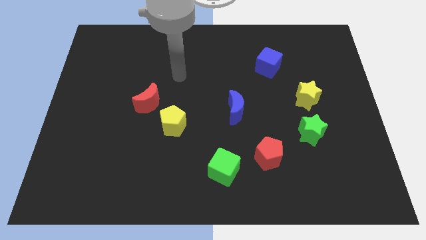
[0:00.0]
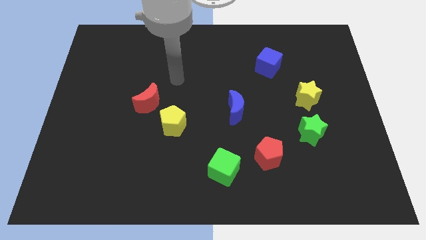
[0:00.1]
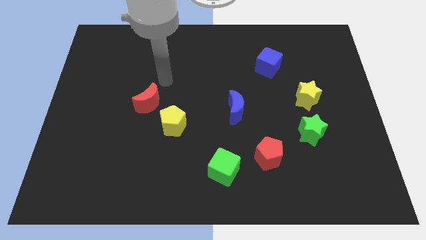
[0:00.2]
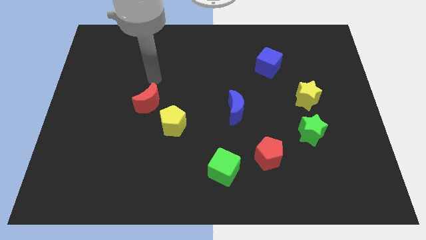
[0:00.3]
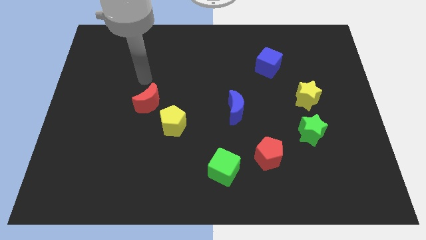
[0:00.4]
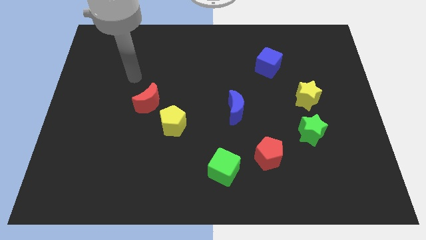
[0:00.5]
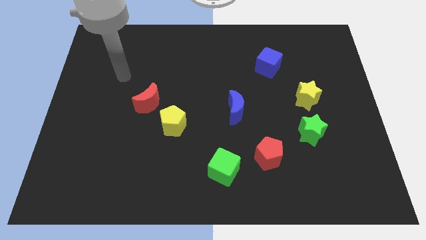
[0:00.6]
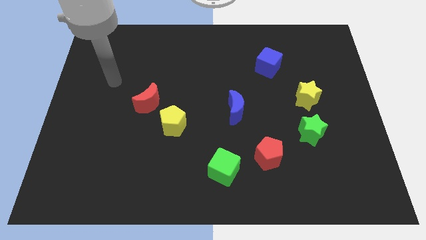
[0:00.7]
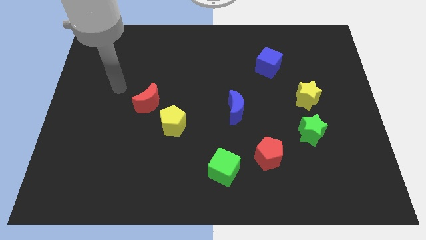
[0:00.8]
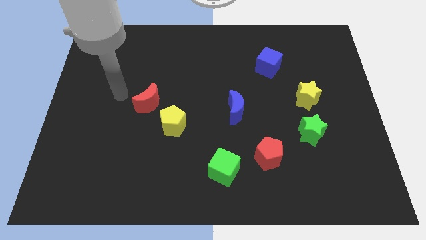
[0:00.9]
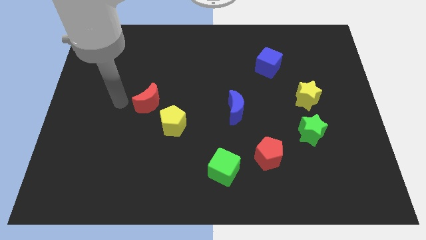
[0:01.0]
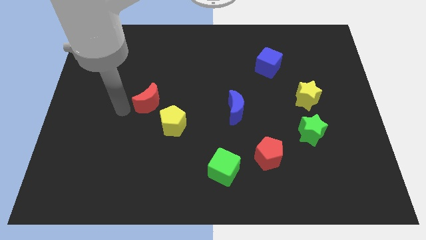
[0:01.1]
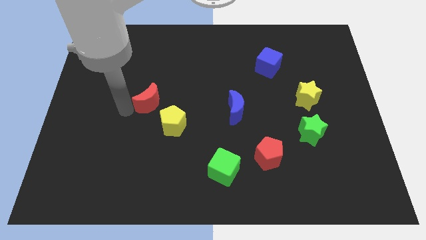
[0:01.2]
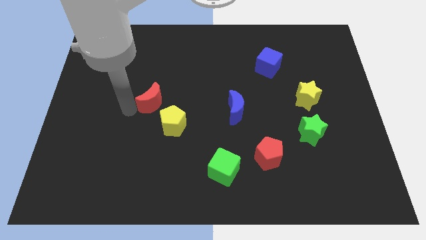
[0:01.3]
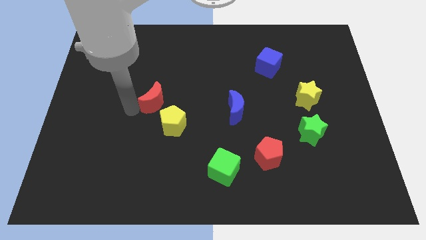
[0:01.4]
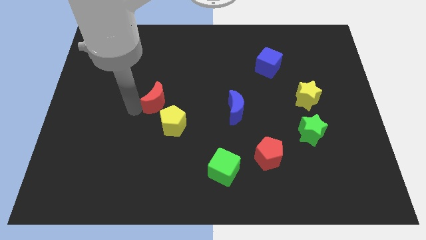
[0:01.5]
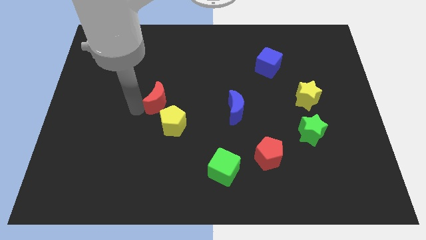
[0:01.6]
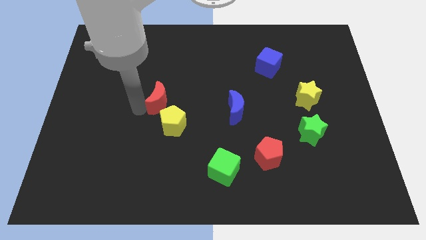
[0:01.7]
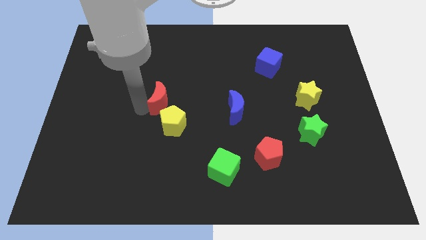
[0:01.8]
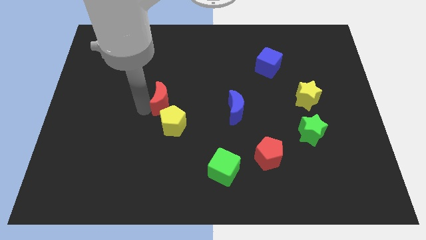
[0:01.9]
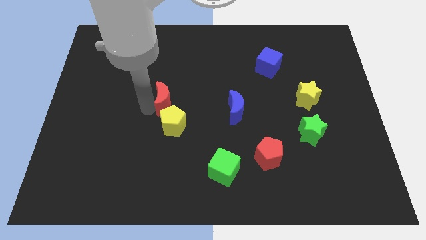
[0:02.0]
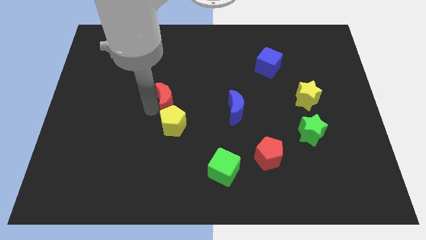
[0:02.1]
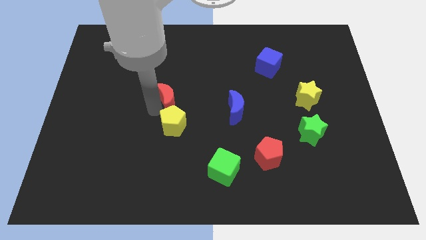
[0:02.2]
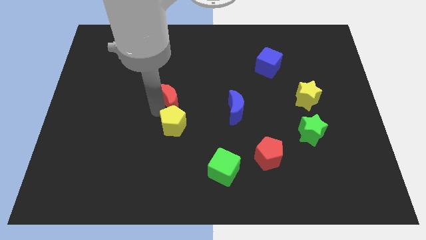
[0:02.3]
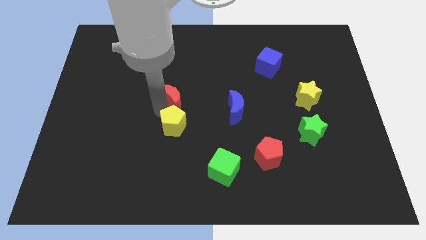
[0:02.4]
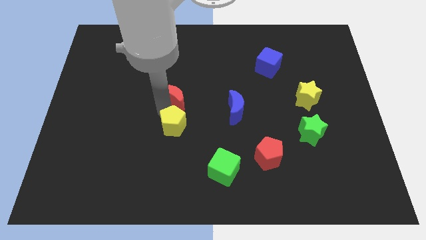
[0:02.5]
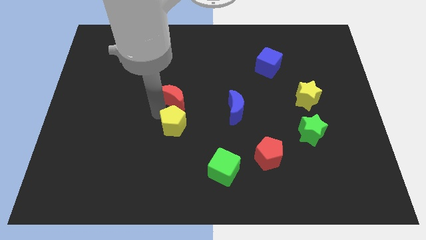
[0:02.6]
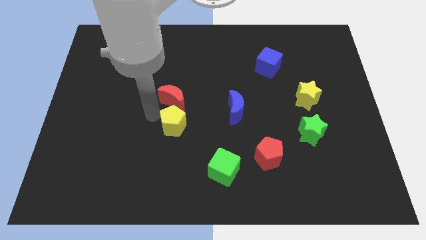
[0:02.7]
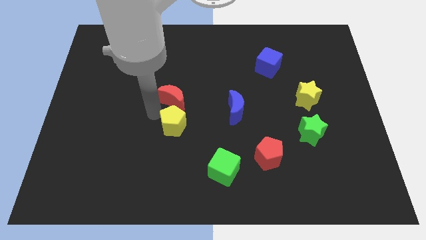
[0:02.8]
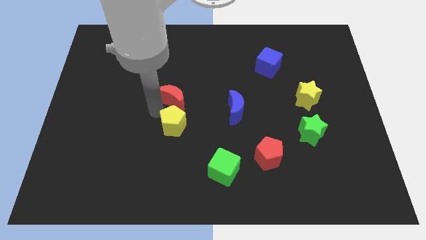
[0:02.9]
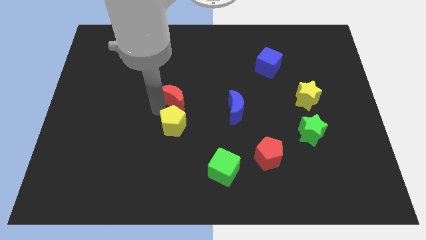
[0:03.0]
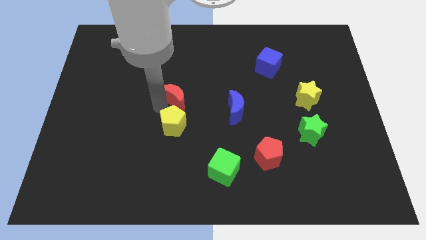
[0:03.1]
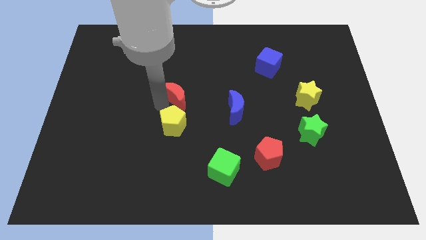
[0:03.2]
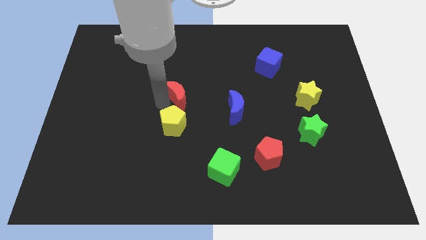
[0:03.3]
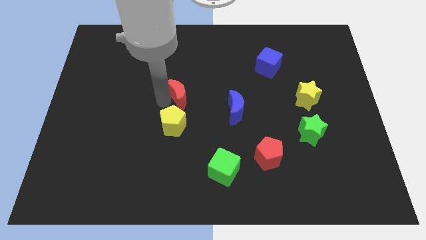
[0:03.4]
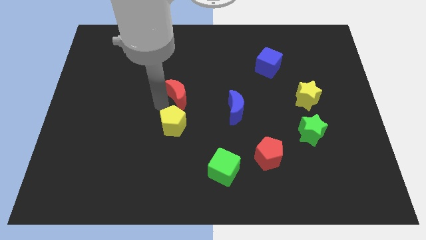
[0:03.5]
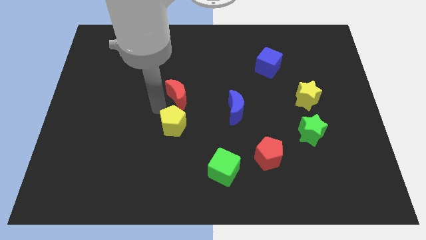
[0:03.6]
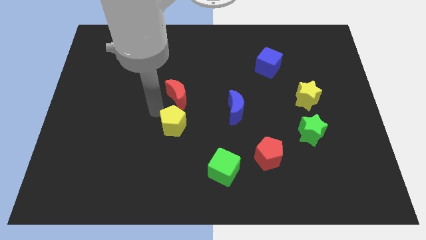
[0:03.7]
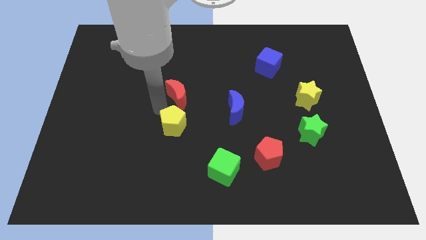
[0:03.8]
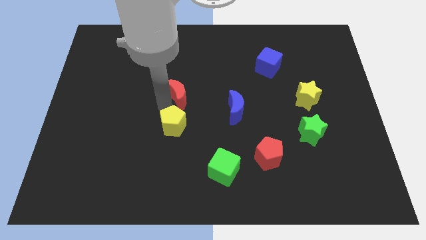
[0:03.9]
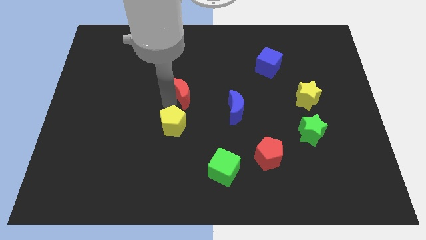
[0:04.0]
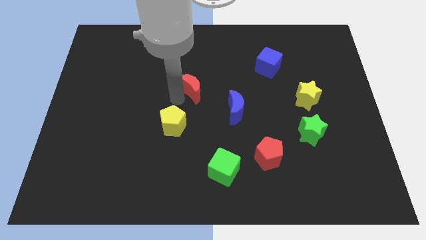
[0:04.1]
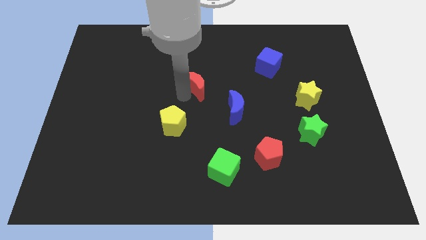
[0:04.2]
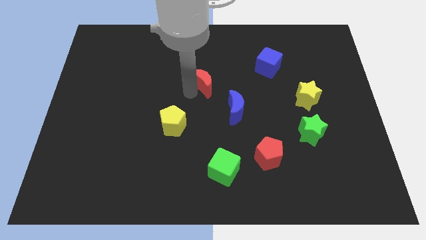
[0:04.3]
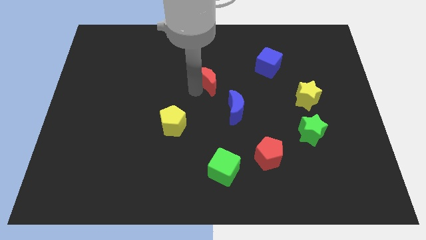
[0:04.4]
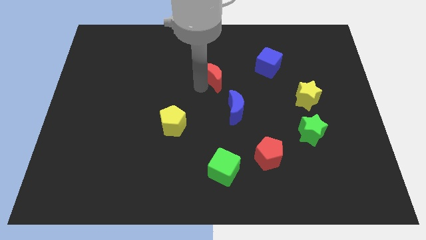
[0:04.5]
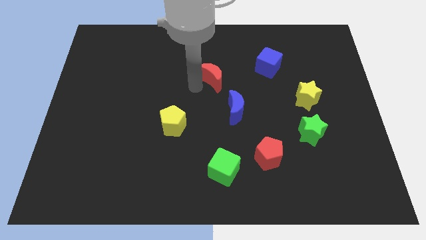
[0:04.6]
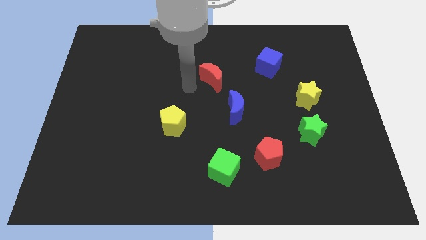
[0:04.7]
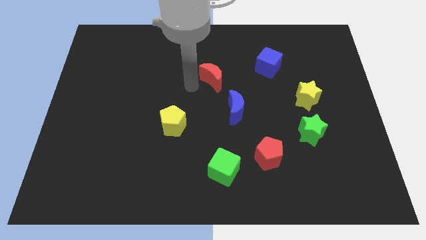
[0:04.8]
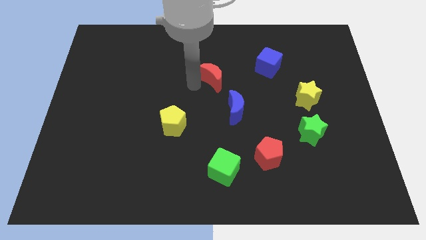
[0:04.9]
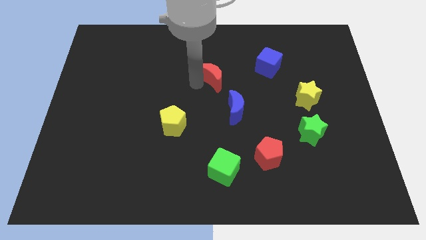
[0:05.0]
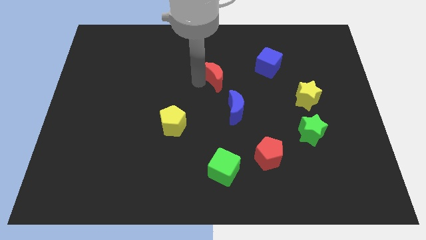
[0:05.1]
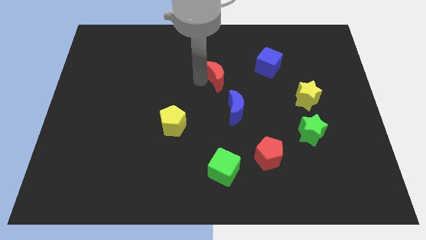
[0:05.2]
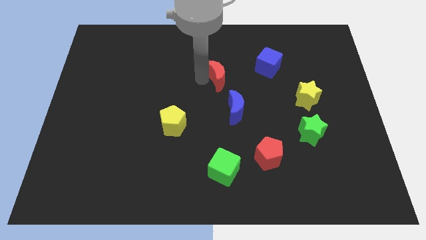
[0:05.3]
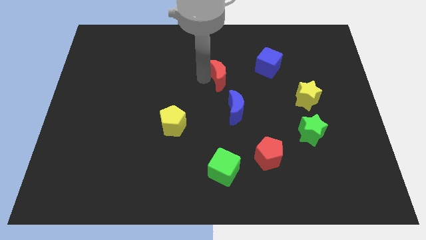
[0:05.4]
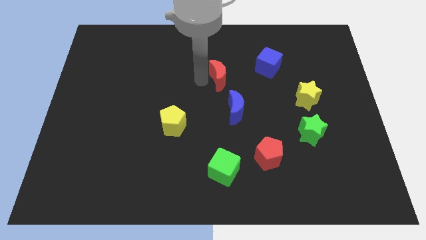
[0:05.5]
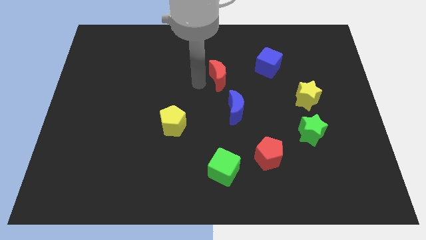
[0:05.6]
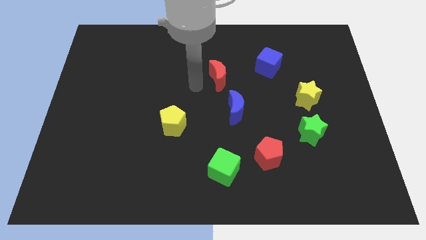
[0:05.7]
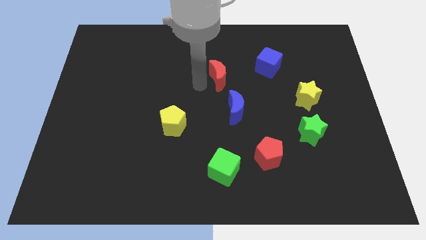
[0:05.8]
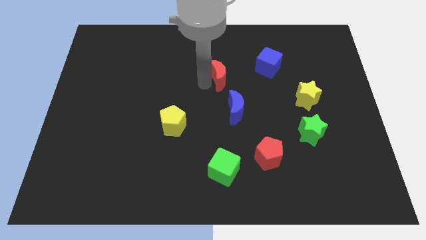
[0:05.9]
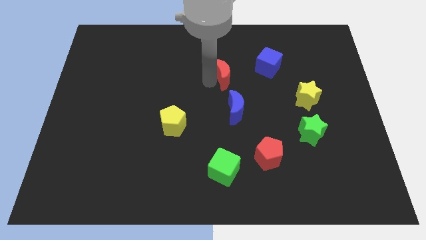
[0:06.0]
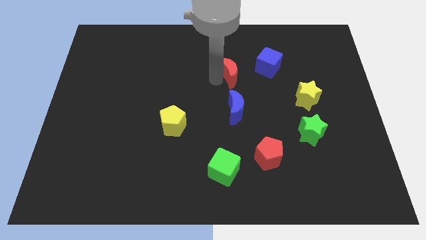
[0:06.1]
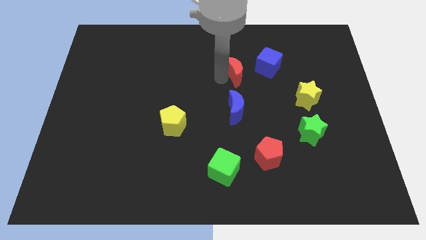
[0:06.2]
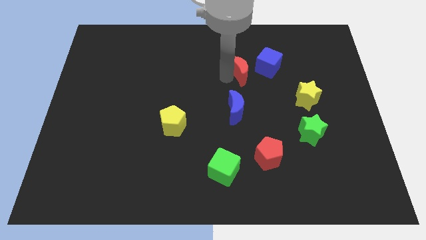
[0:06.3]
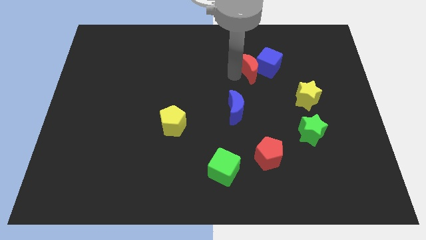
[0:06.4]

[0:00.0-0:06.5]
move the red moon towards the blue cube

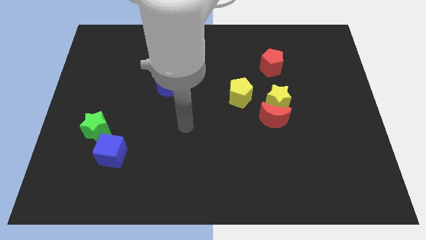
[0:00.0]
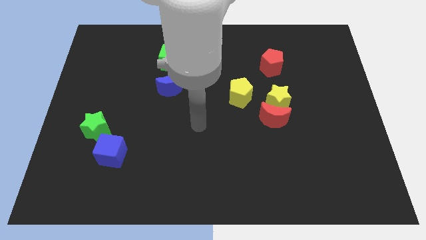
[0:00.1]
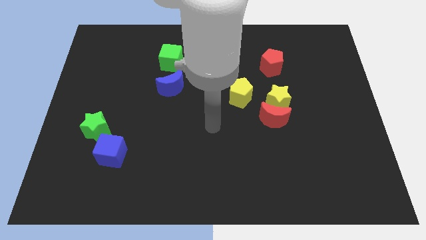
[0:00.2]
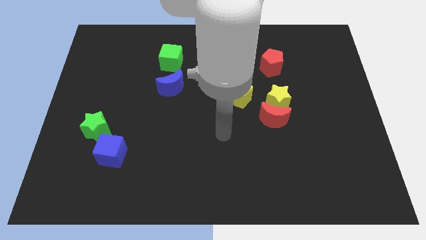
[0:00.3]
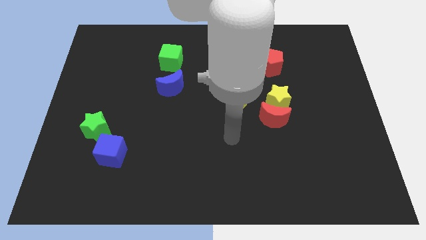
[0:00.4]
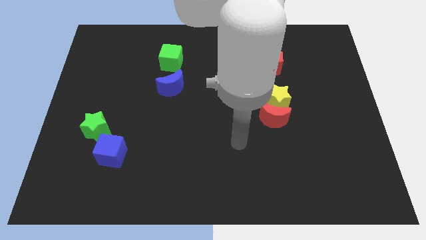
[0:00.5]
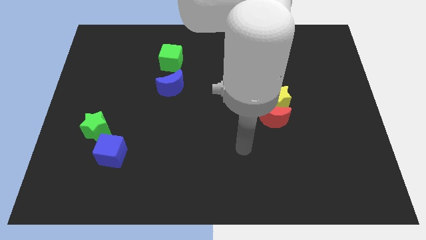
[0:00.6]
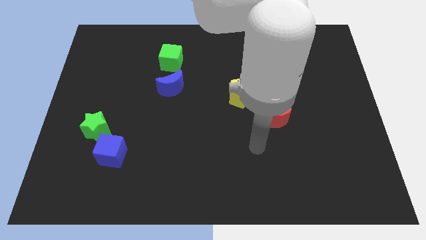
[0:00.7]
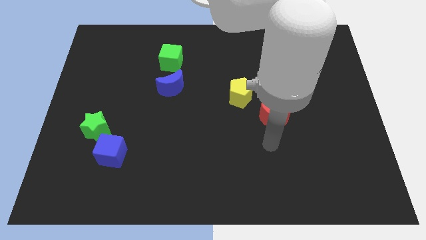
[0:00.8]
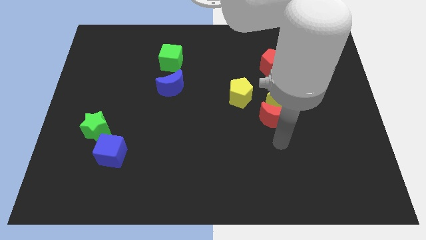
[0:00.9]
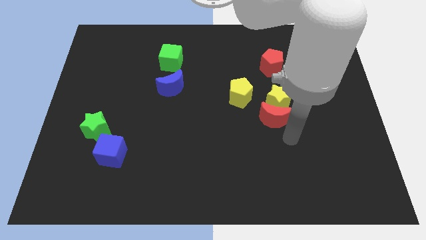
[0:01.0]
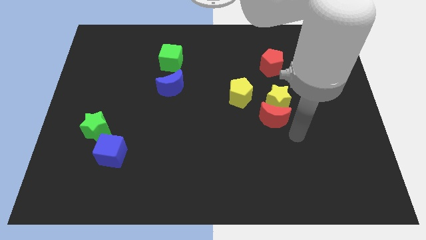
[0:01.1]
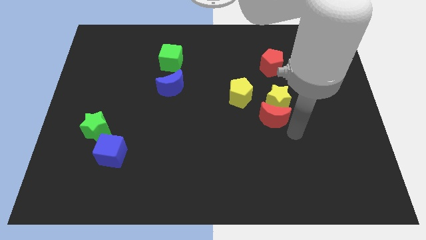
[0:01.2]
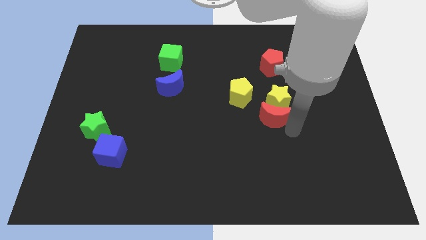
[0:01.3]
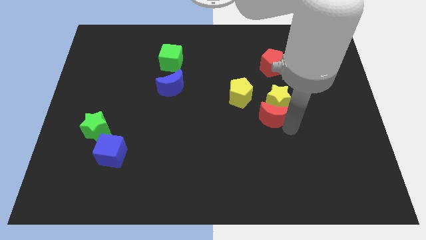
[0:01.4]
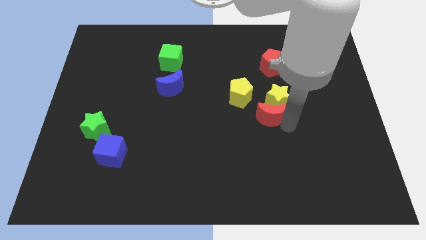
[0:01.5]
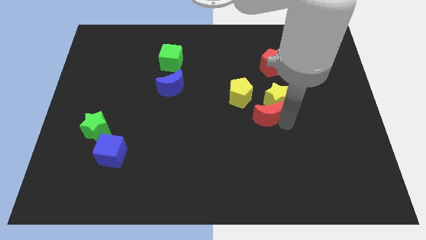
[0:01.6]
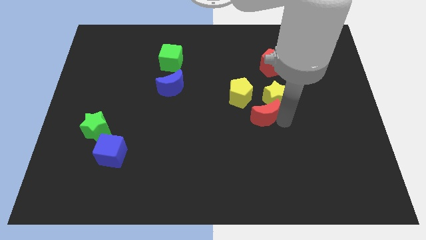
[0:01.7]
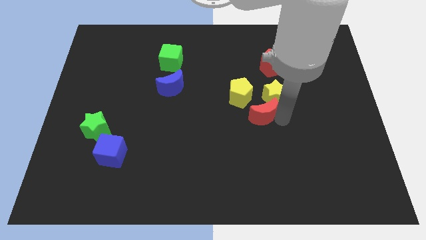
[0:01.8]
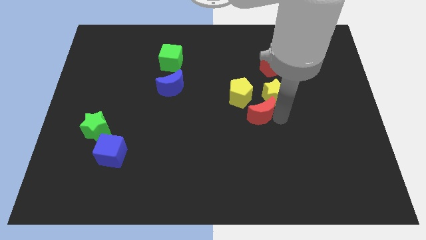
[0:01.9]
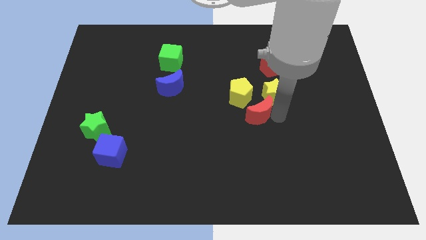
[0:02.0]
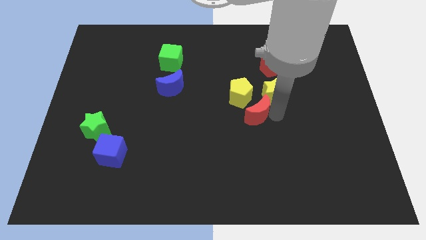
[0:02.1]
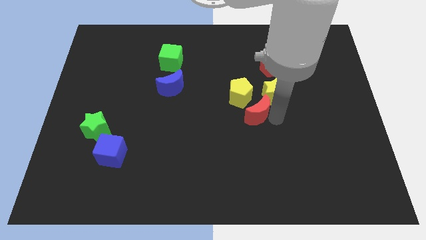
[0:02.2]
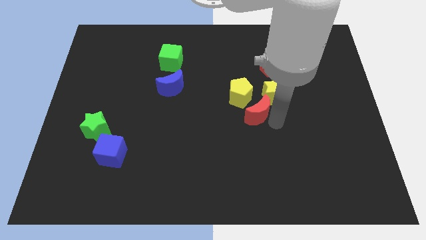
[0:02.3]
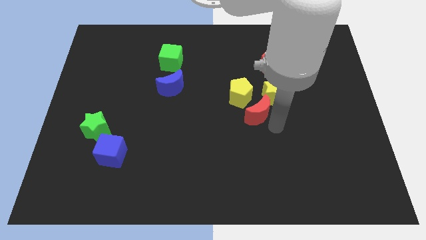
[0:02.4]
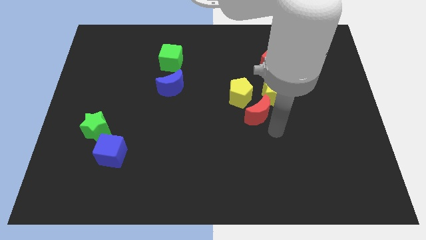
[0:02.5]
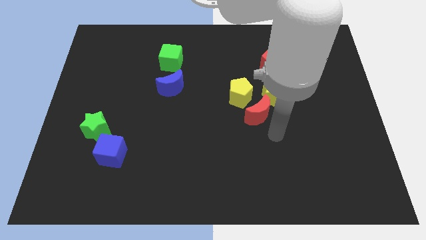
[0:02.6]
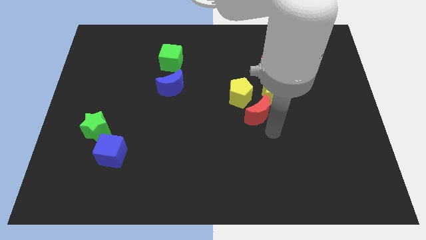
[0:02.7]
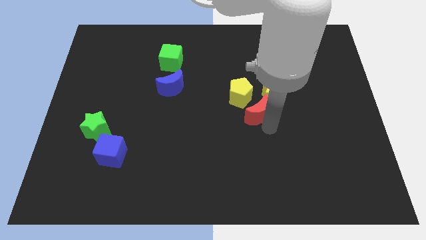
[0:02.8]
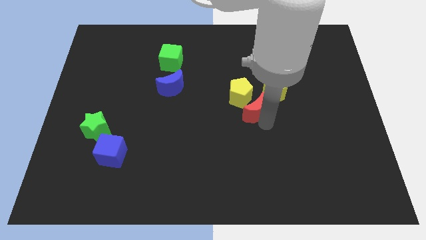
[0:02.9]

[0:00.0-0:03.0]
move the red moon to the yellow pentagon
